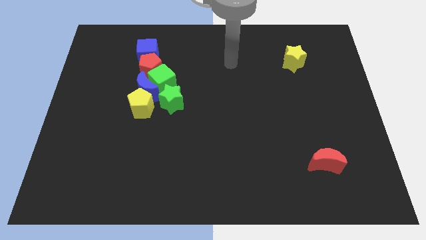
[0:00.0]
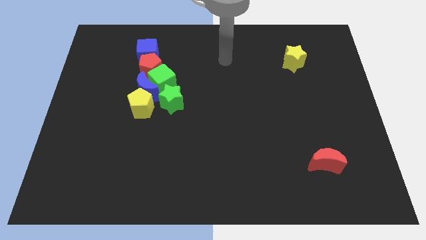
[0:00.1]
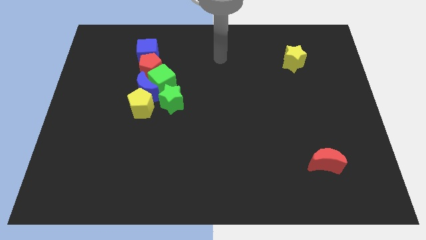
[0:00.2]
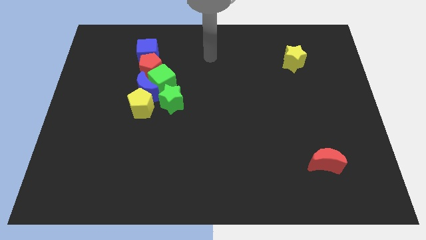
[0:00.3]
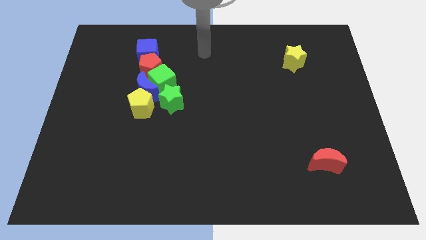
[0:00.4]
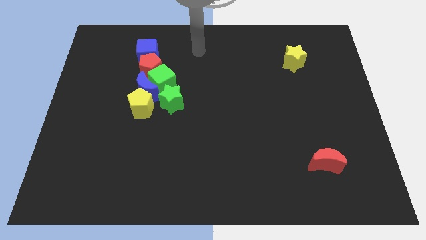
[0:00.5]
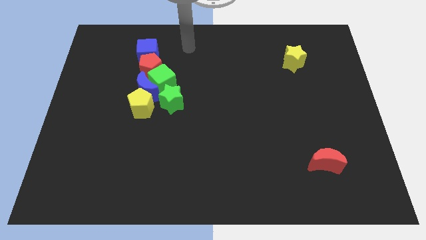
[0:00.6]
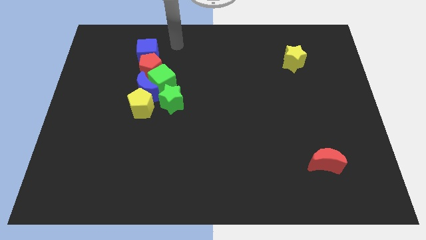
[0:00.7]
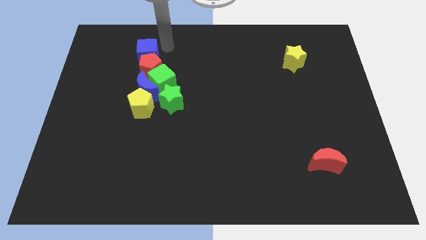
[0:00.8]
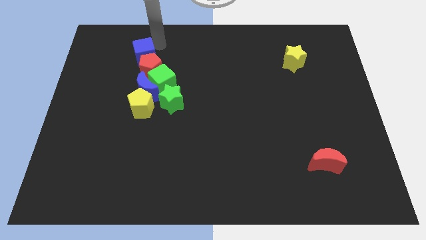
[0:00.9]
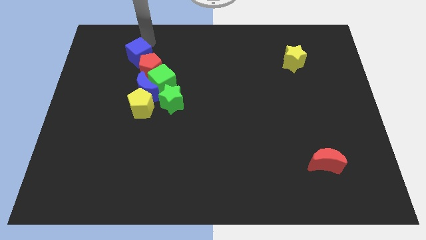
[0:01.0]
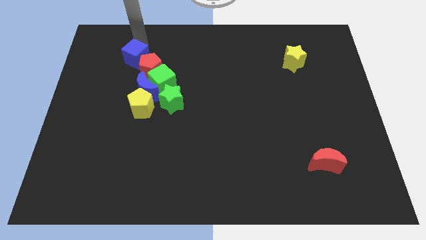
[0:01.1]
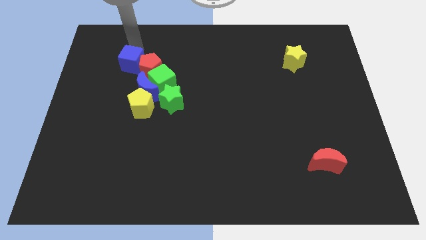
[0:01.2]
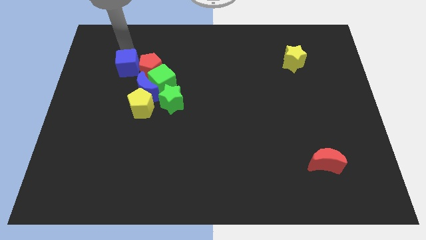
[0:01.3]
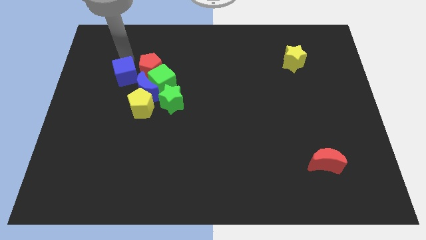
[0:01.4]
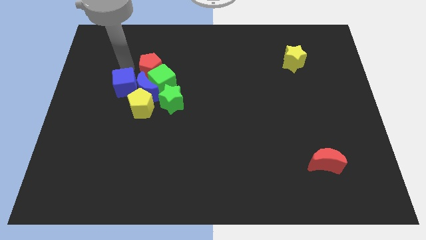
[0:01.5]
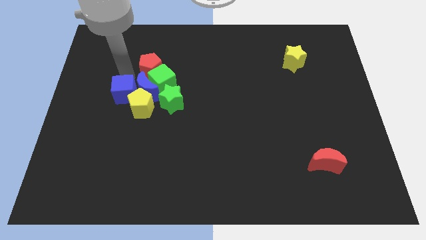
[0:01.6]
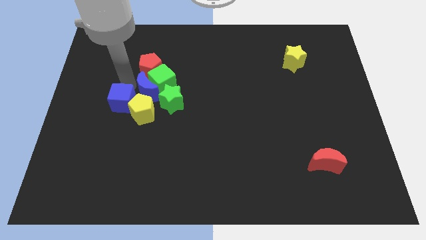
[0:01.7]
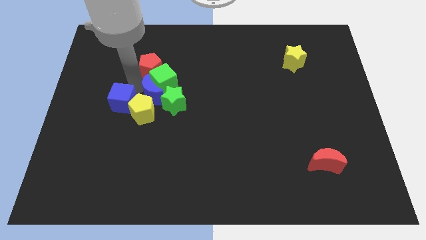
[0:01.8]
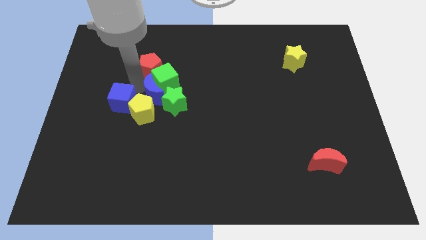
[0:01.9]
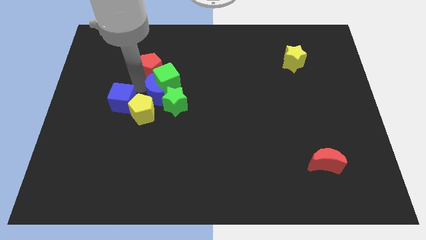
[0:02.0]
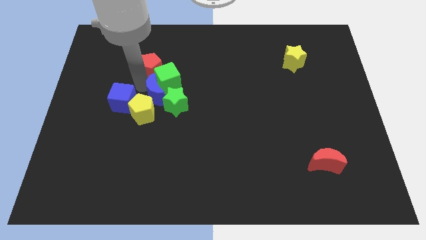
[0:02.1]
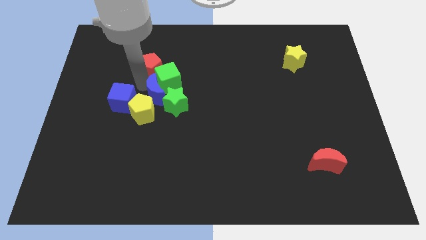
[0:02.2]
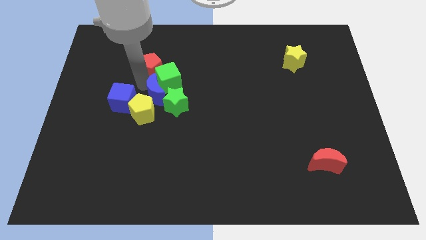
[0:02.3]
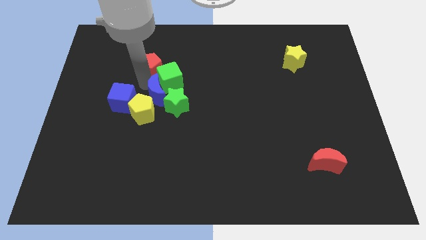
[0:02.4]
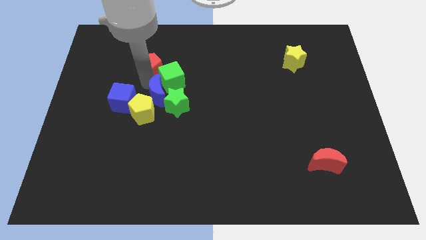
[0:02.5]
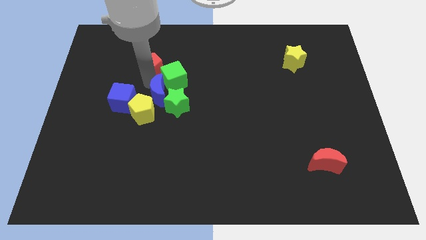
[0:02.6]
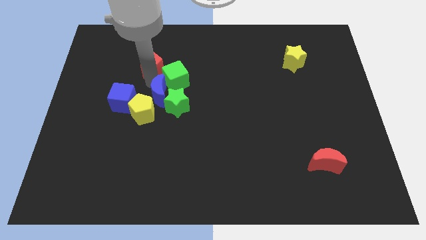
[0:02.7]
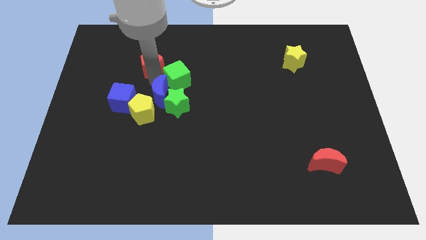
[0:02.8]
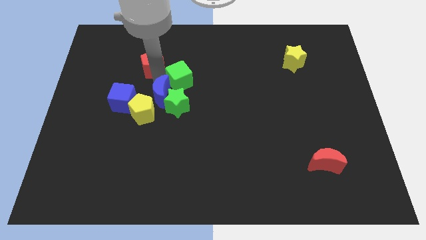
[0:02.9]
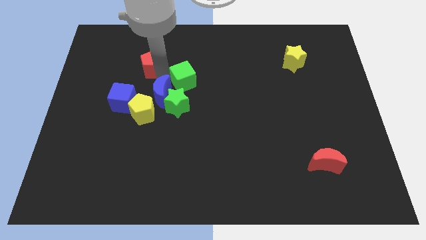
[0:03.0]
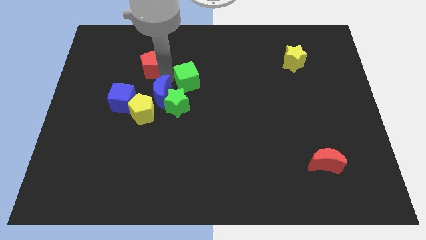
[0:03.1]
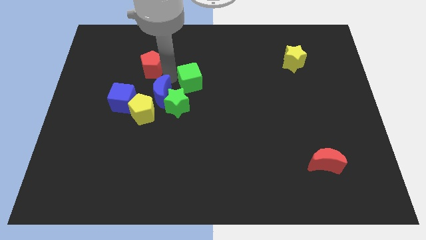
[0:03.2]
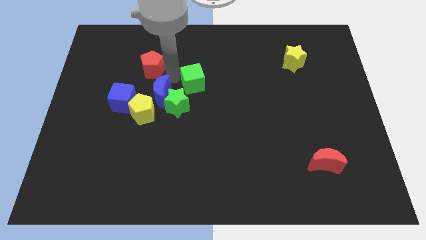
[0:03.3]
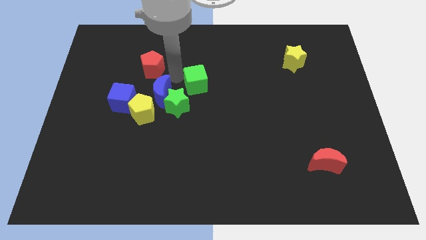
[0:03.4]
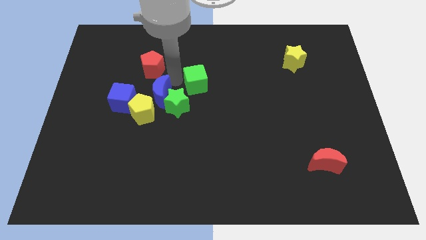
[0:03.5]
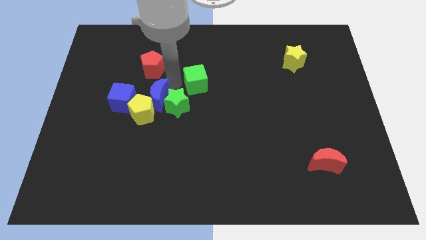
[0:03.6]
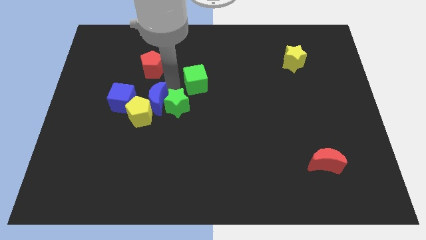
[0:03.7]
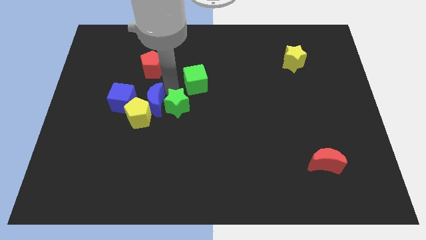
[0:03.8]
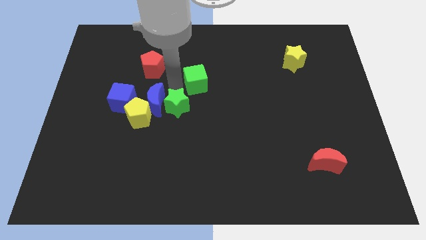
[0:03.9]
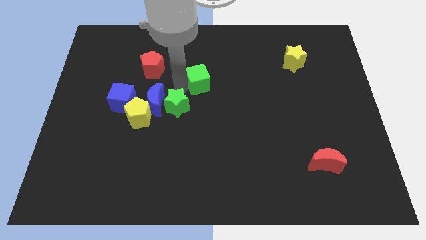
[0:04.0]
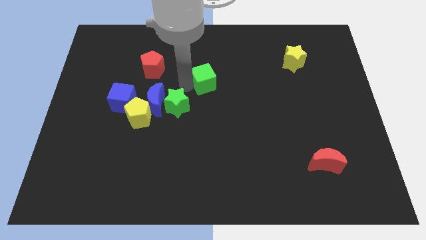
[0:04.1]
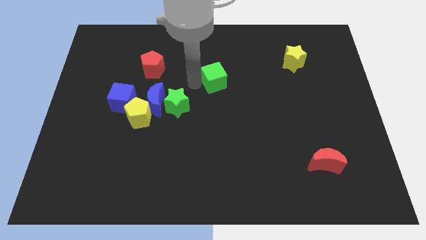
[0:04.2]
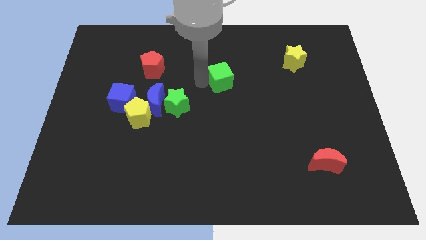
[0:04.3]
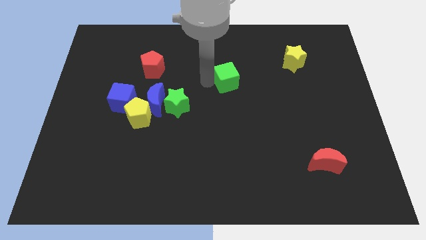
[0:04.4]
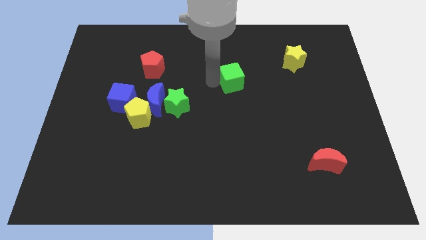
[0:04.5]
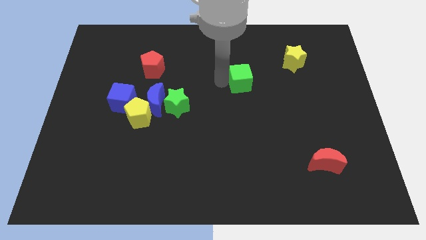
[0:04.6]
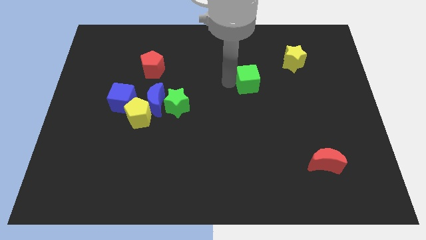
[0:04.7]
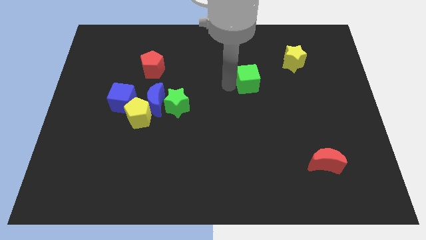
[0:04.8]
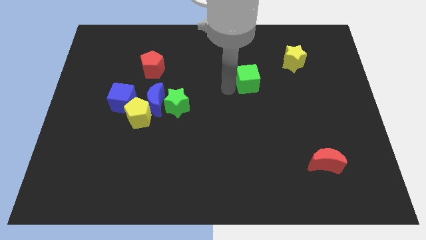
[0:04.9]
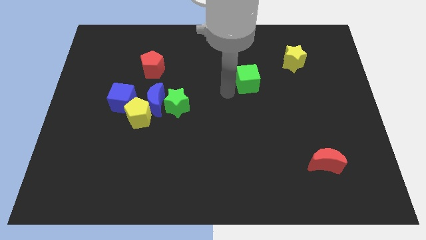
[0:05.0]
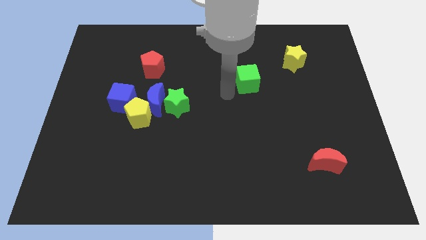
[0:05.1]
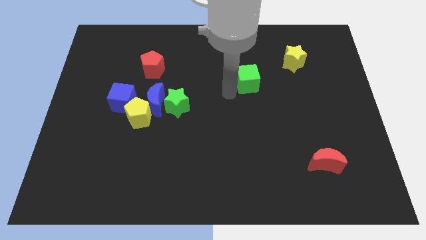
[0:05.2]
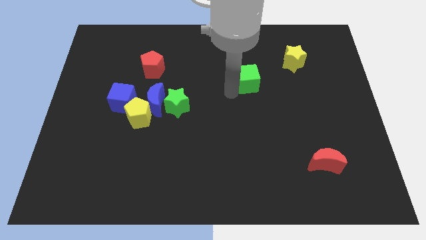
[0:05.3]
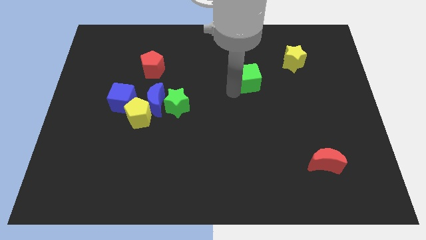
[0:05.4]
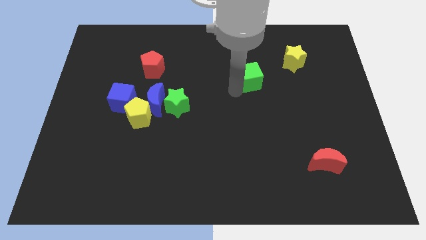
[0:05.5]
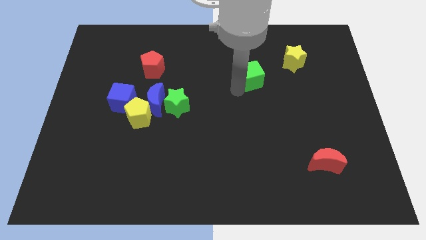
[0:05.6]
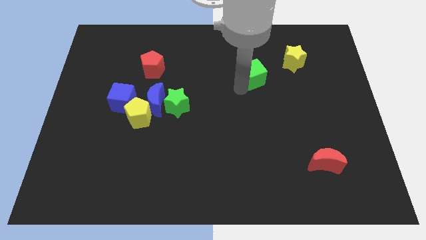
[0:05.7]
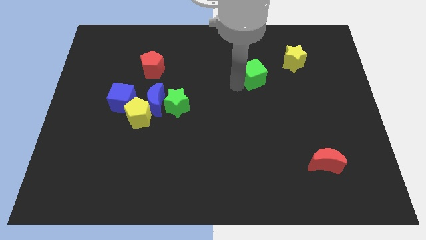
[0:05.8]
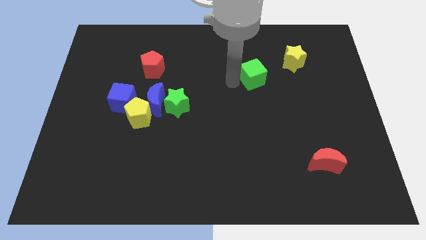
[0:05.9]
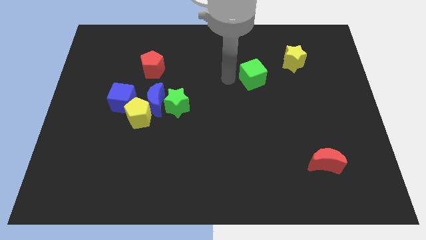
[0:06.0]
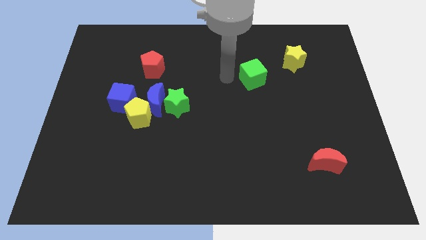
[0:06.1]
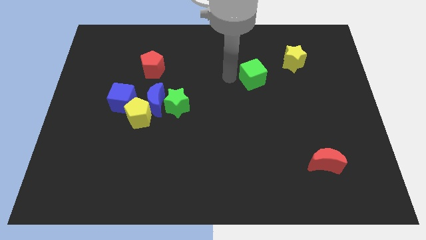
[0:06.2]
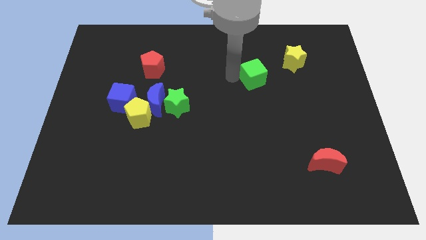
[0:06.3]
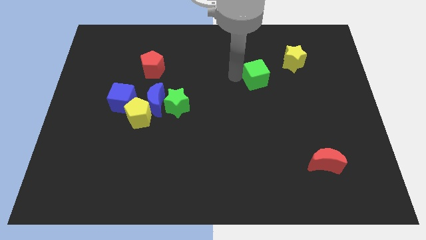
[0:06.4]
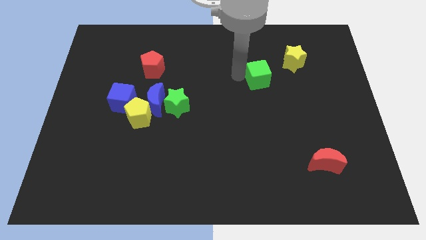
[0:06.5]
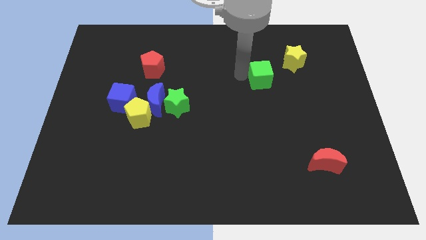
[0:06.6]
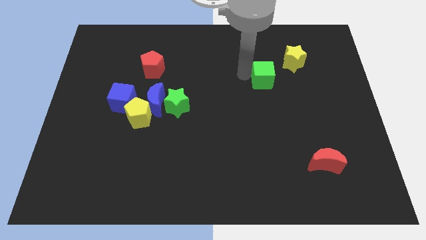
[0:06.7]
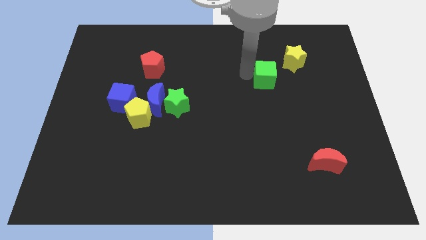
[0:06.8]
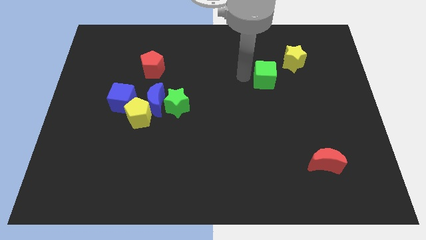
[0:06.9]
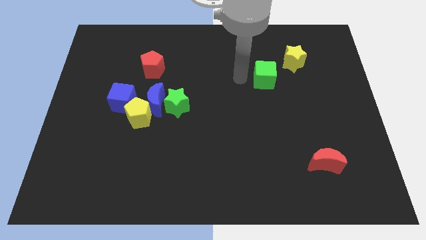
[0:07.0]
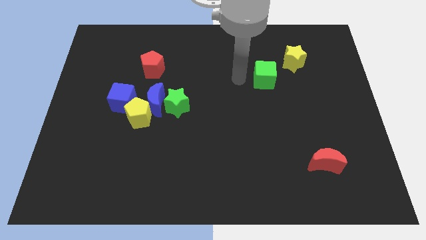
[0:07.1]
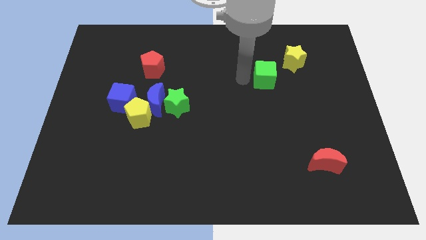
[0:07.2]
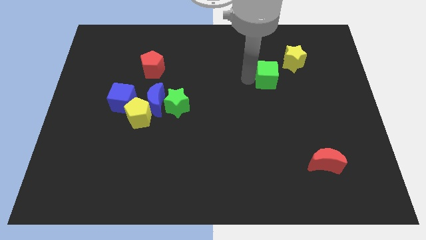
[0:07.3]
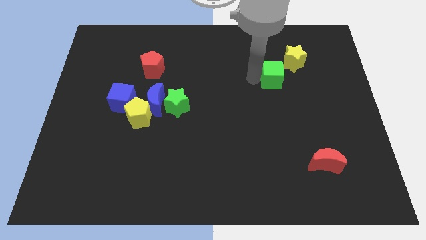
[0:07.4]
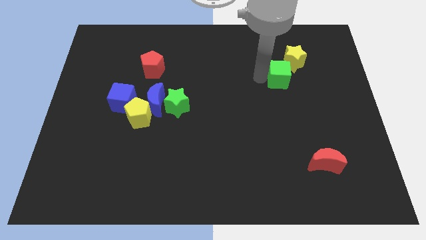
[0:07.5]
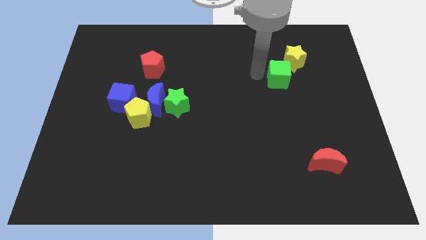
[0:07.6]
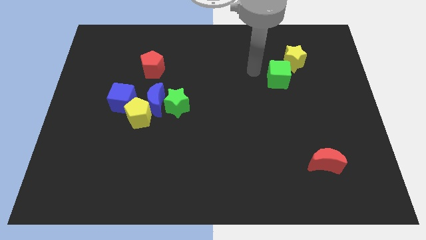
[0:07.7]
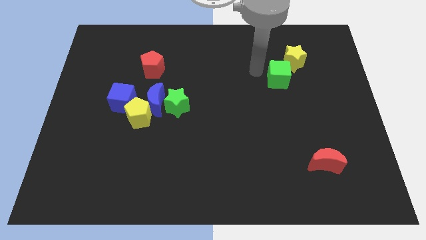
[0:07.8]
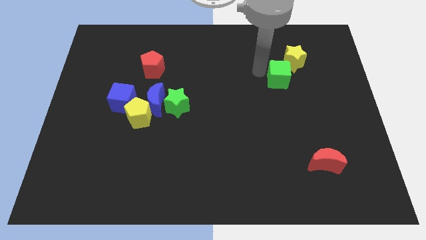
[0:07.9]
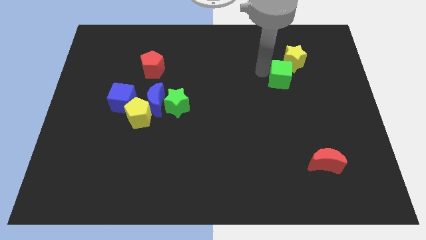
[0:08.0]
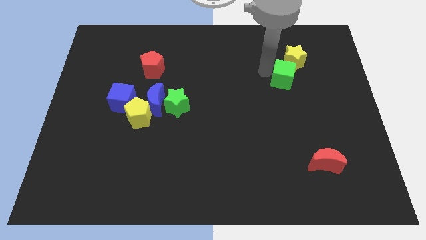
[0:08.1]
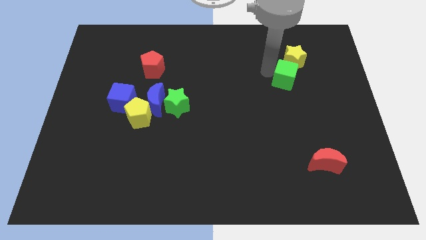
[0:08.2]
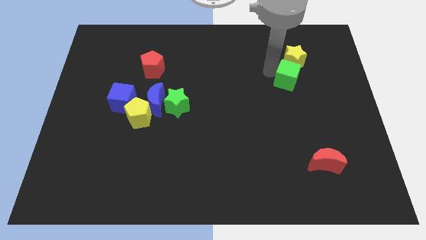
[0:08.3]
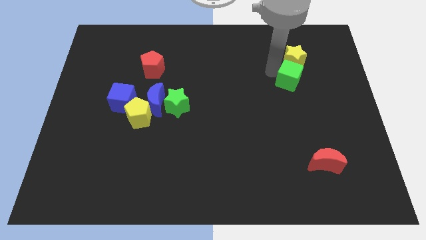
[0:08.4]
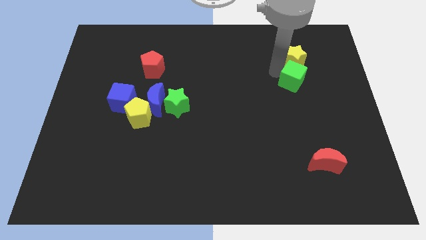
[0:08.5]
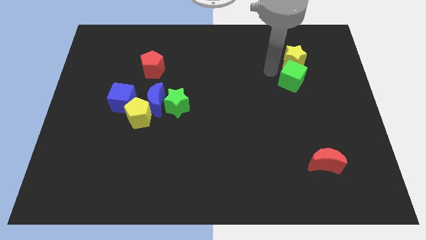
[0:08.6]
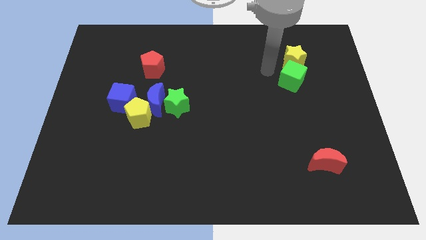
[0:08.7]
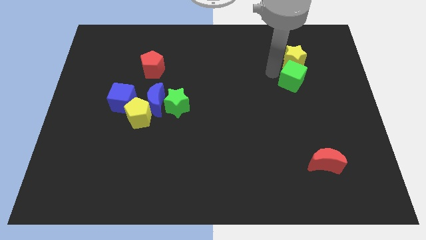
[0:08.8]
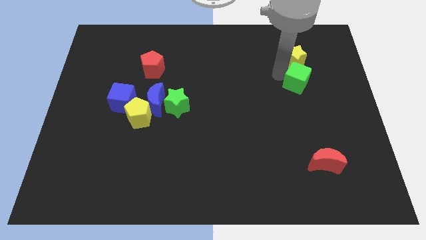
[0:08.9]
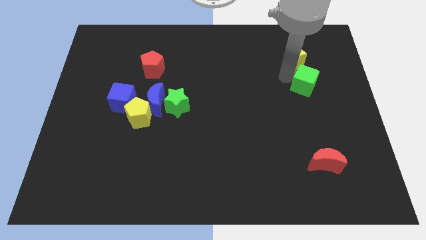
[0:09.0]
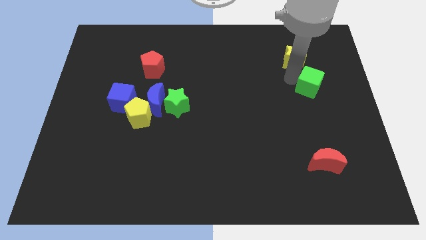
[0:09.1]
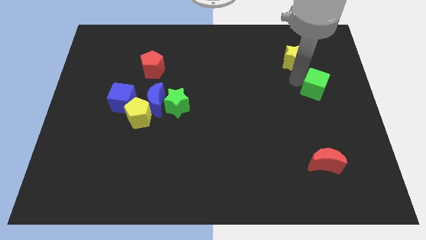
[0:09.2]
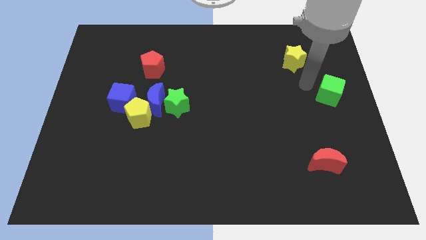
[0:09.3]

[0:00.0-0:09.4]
push the green cube to the center right
